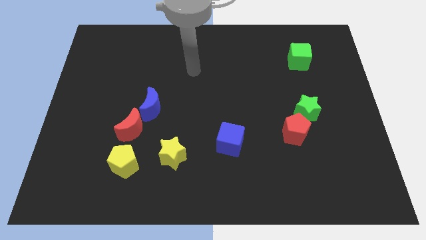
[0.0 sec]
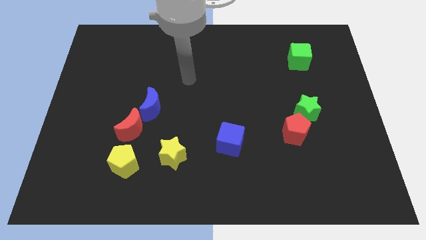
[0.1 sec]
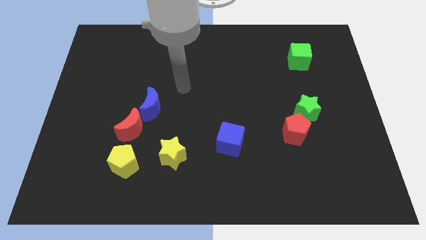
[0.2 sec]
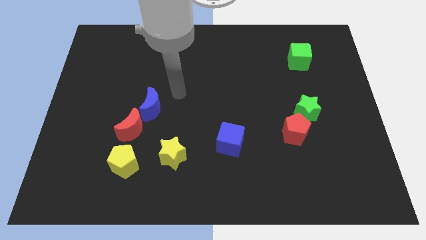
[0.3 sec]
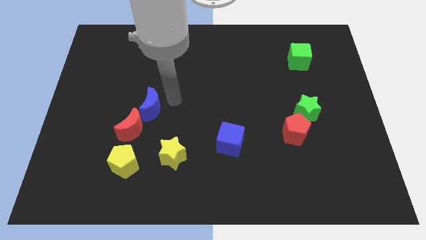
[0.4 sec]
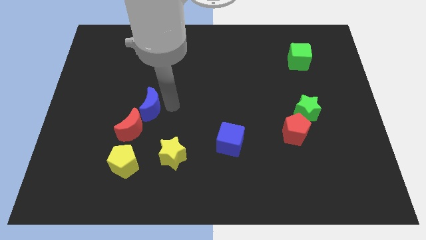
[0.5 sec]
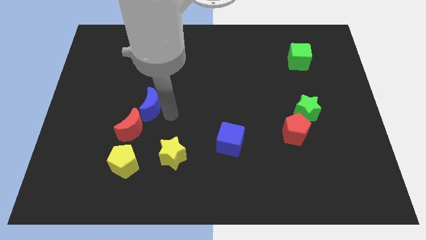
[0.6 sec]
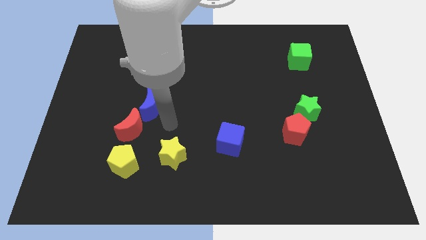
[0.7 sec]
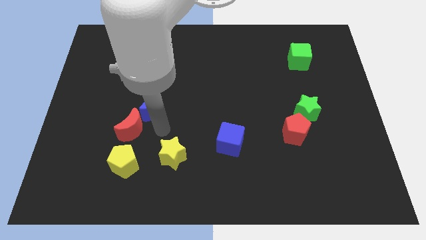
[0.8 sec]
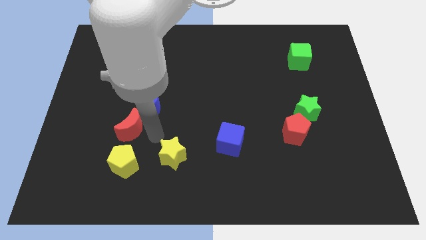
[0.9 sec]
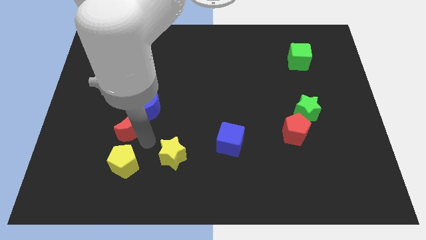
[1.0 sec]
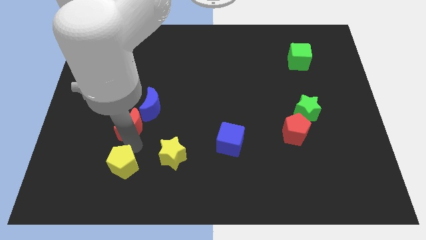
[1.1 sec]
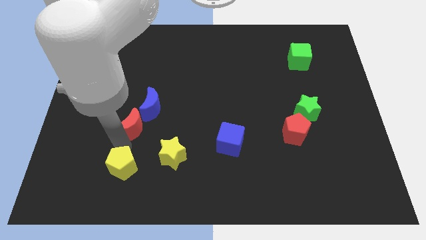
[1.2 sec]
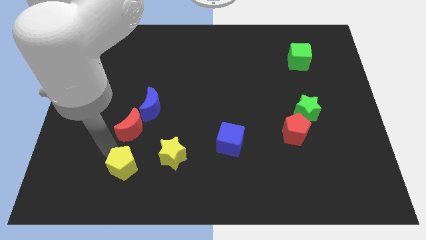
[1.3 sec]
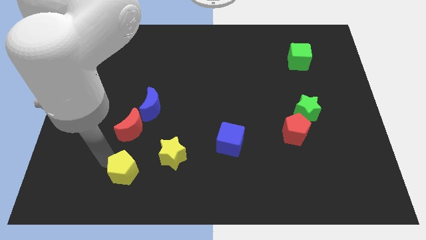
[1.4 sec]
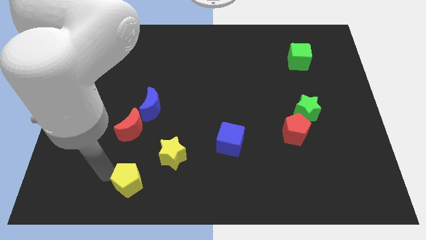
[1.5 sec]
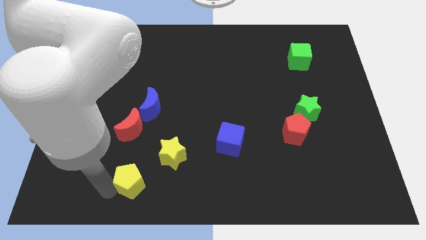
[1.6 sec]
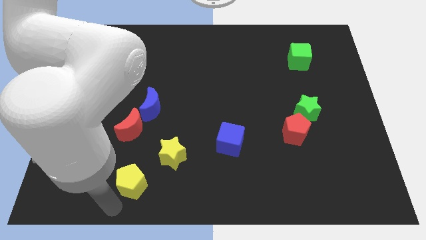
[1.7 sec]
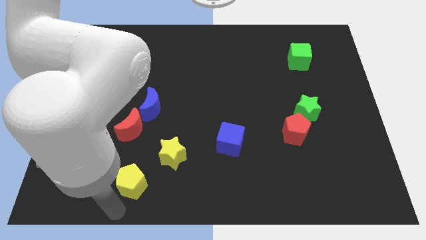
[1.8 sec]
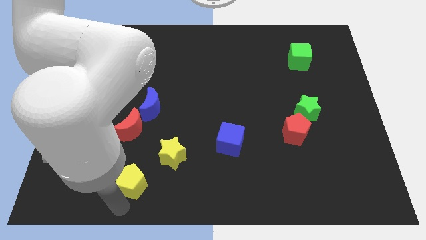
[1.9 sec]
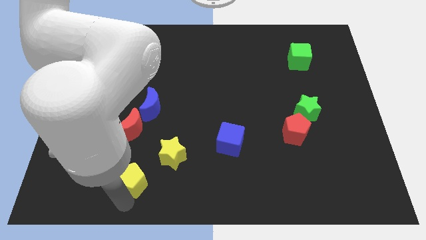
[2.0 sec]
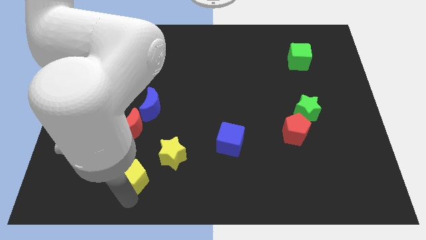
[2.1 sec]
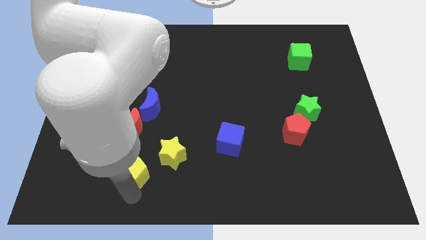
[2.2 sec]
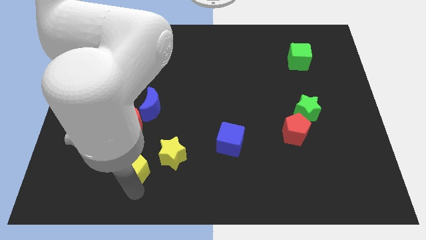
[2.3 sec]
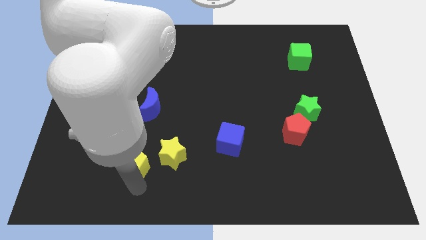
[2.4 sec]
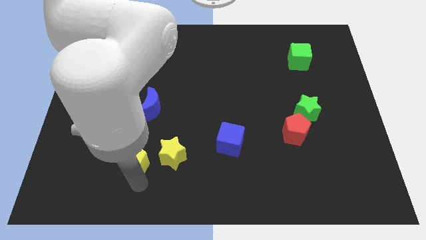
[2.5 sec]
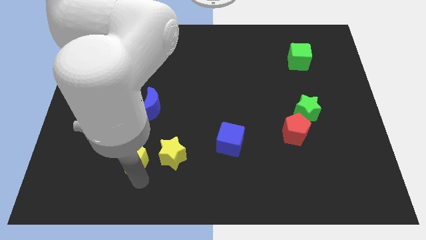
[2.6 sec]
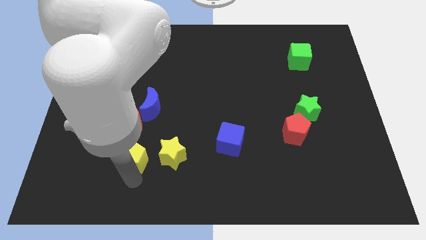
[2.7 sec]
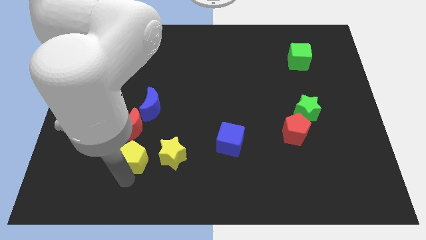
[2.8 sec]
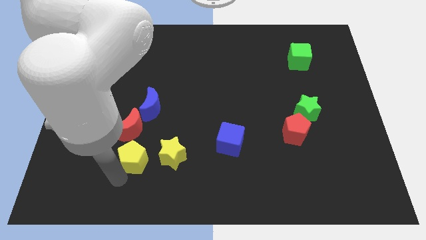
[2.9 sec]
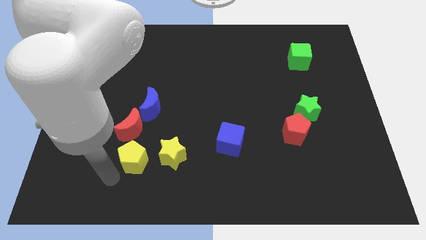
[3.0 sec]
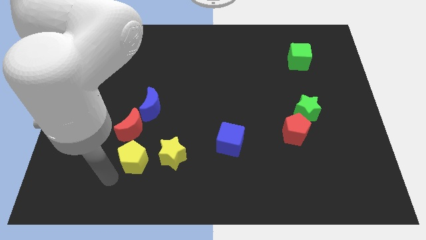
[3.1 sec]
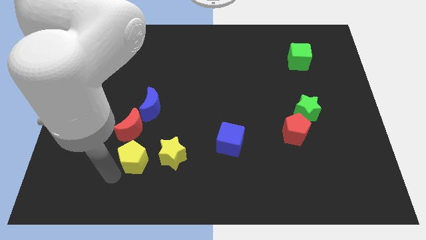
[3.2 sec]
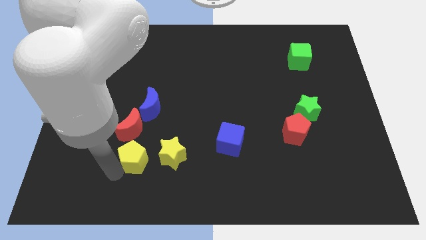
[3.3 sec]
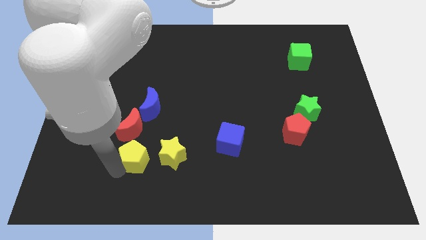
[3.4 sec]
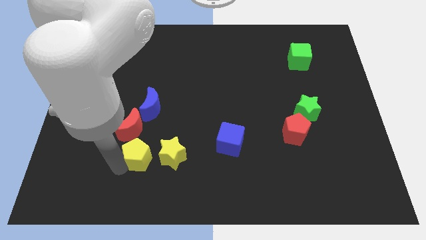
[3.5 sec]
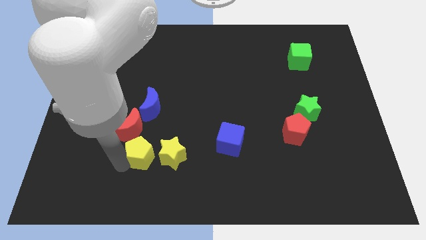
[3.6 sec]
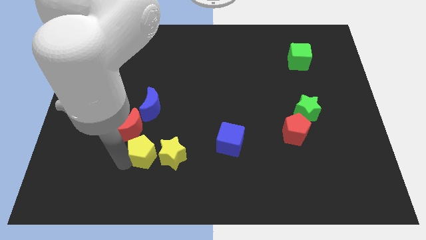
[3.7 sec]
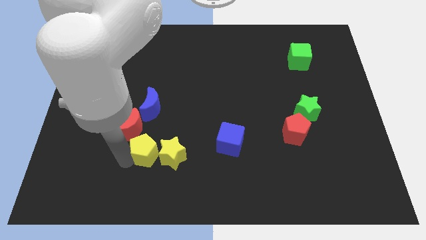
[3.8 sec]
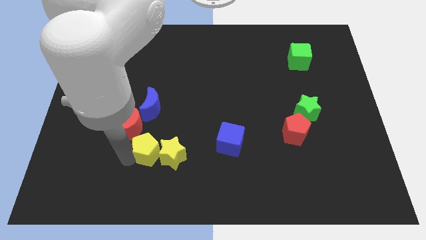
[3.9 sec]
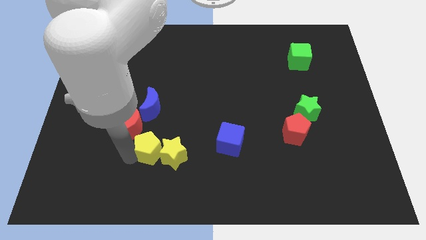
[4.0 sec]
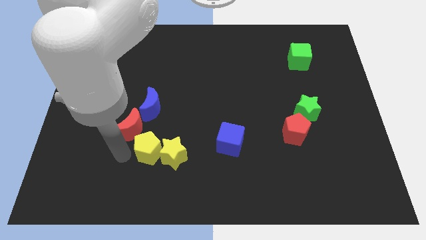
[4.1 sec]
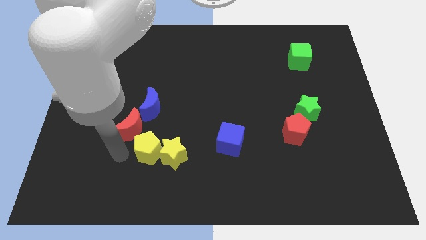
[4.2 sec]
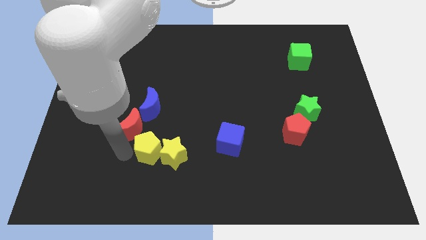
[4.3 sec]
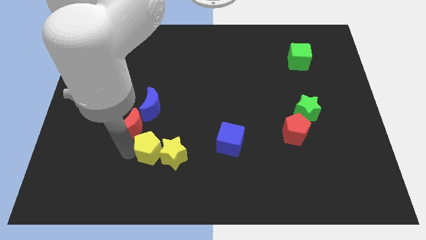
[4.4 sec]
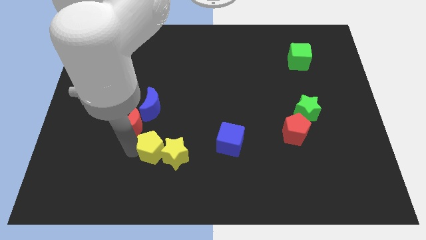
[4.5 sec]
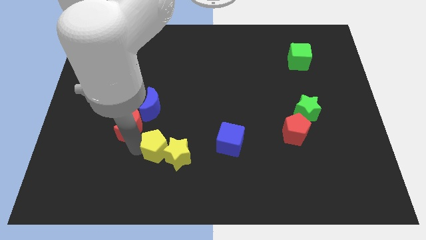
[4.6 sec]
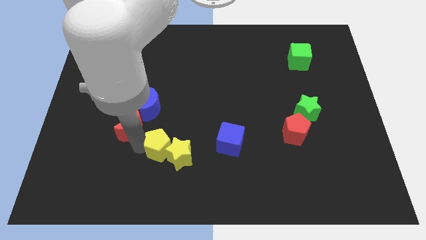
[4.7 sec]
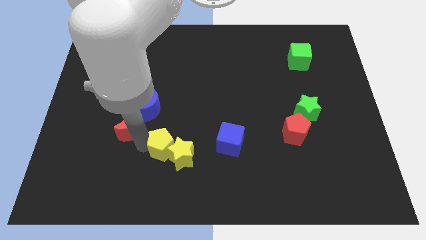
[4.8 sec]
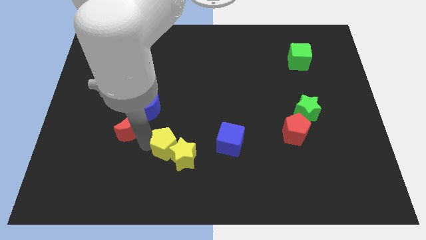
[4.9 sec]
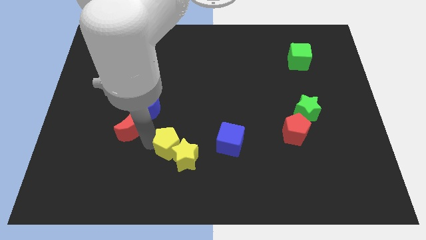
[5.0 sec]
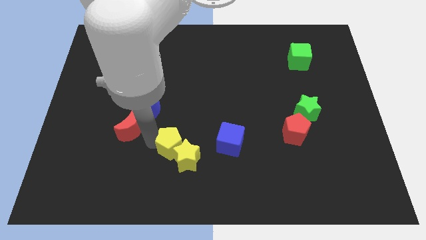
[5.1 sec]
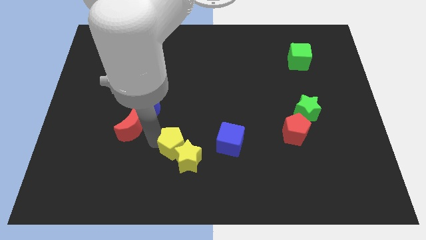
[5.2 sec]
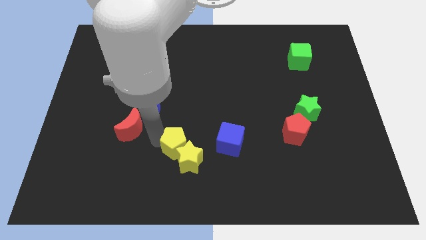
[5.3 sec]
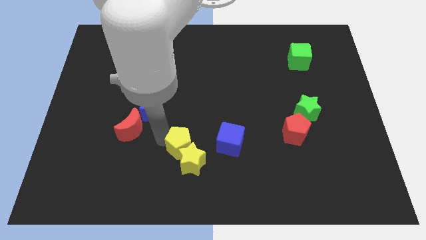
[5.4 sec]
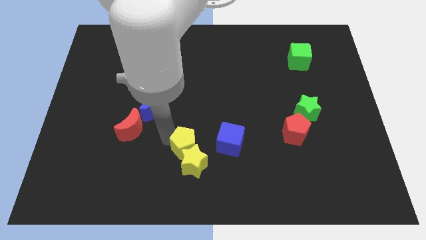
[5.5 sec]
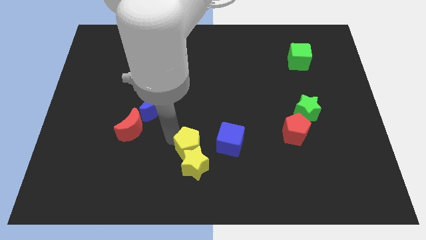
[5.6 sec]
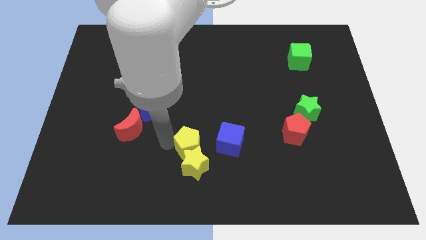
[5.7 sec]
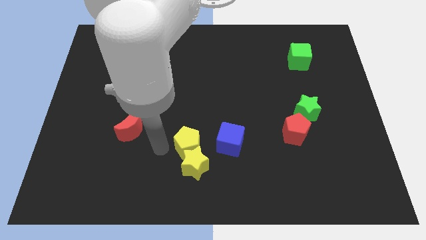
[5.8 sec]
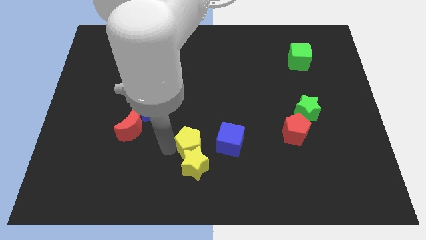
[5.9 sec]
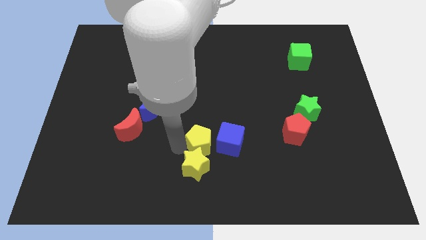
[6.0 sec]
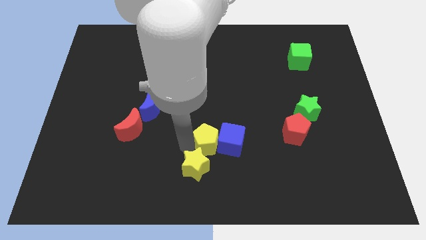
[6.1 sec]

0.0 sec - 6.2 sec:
push the yellow pentagon close to the blue cube

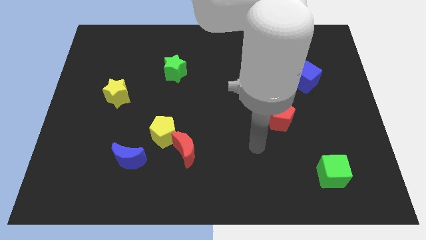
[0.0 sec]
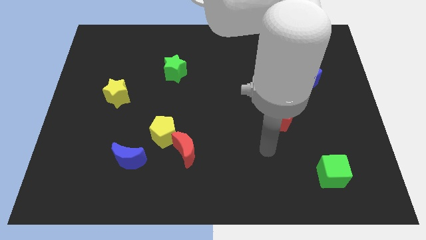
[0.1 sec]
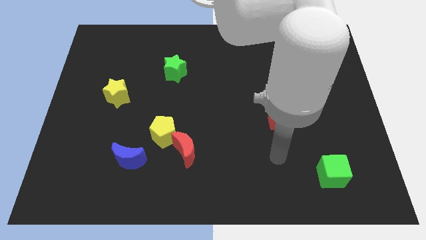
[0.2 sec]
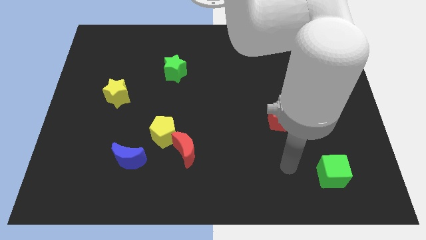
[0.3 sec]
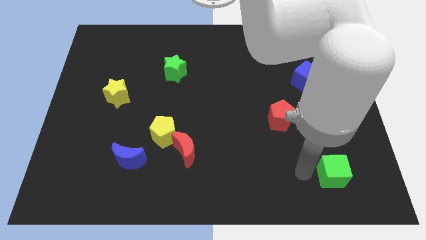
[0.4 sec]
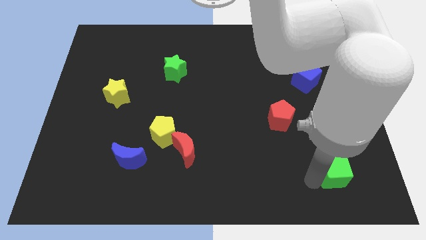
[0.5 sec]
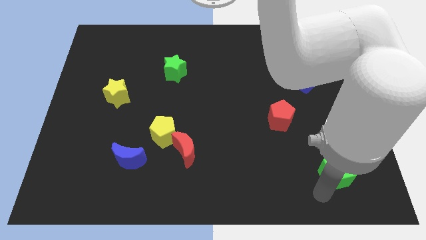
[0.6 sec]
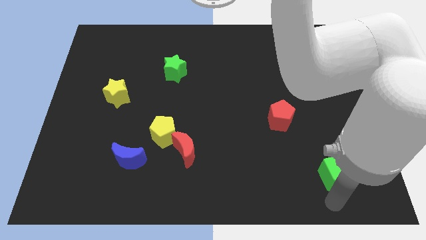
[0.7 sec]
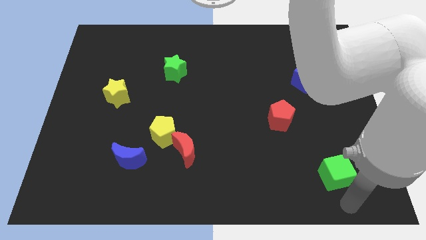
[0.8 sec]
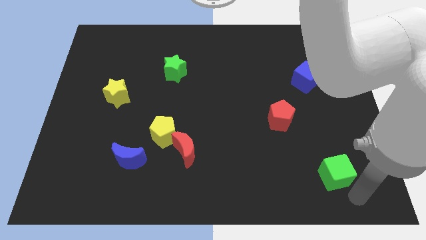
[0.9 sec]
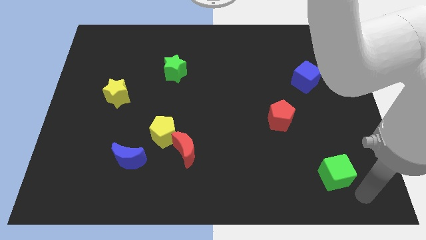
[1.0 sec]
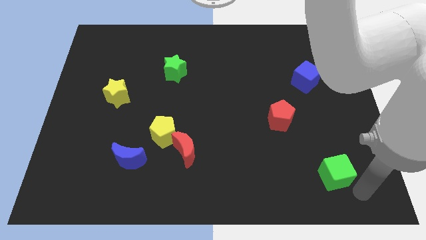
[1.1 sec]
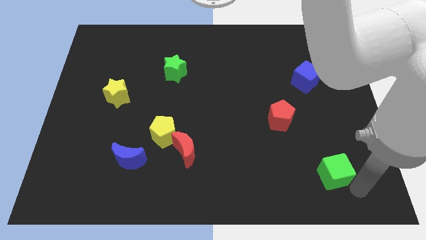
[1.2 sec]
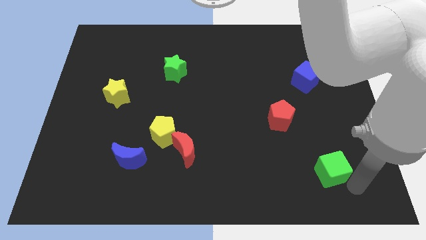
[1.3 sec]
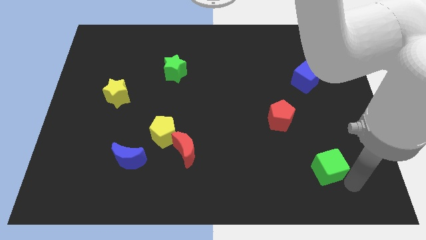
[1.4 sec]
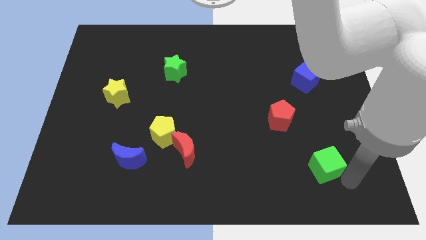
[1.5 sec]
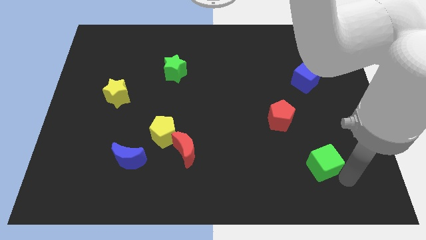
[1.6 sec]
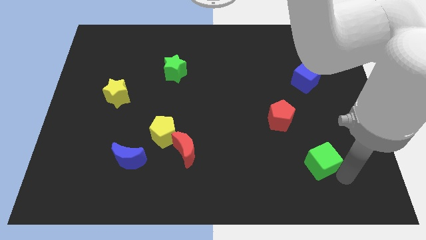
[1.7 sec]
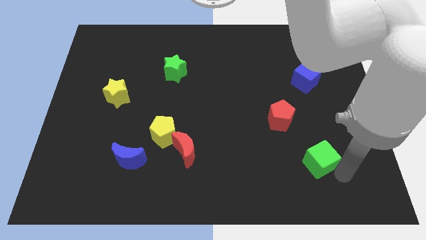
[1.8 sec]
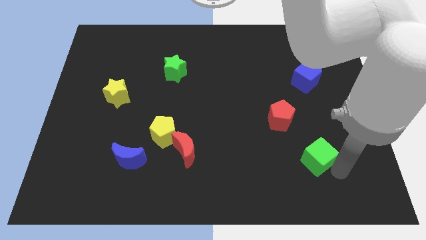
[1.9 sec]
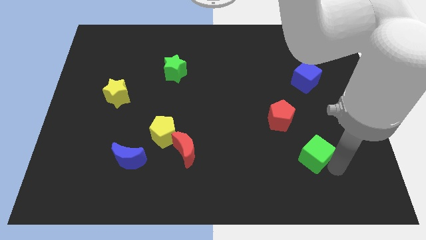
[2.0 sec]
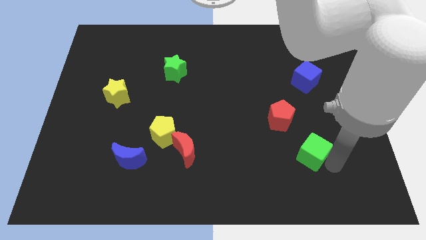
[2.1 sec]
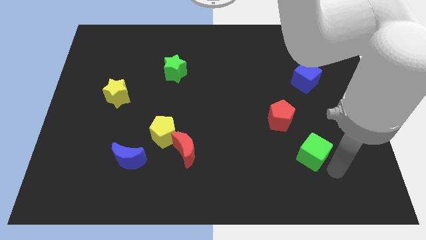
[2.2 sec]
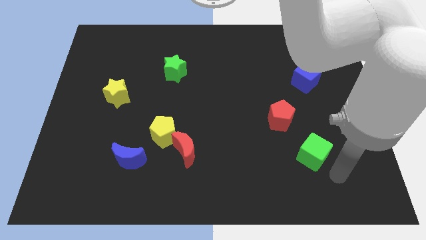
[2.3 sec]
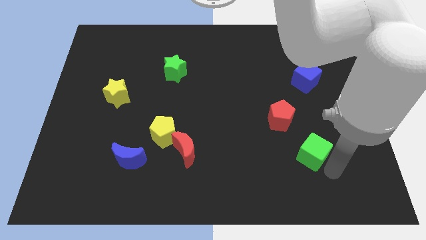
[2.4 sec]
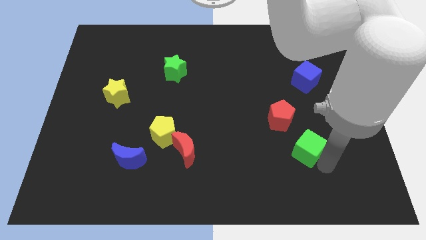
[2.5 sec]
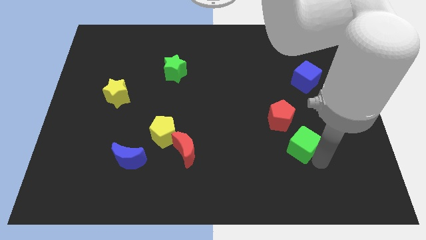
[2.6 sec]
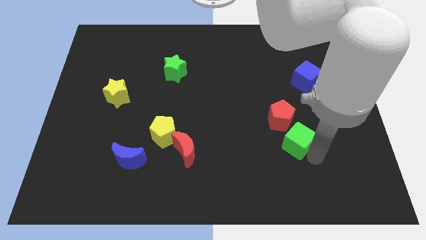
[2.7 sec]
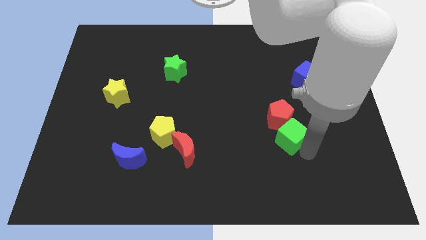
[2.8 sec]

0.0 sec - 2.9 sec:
move the green cube to the red pentagon
